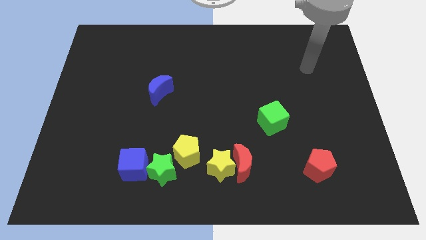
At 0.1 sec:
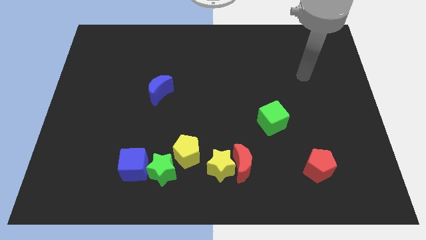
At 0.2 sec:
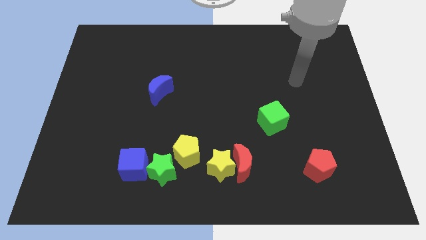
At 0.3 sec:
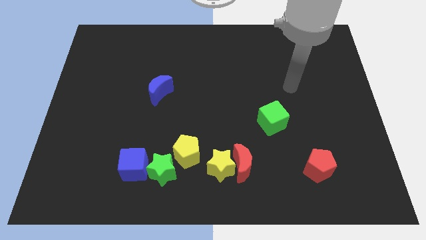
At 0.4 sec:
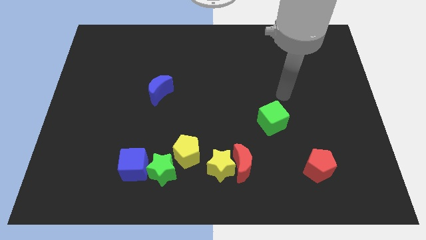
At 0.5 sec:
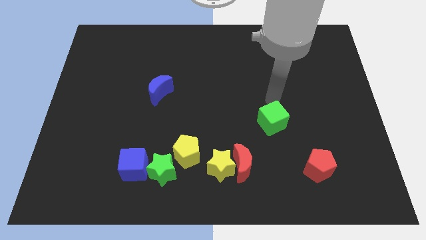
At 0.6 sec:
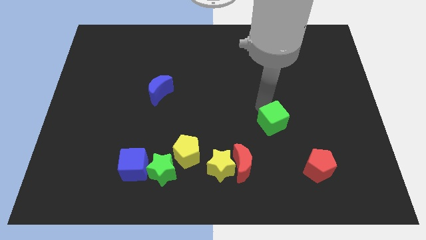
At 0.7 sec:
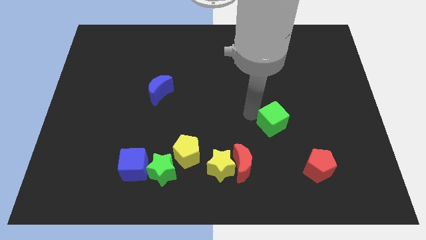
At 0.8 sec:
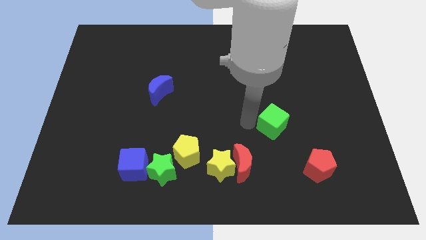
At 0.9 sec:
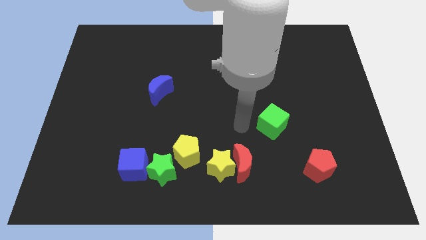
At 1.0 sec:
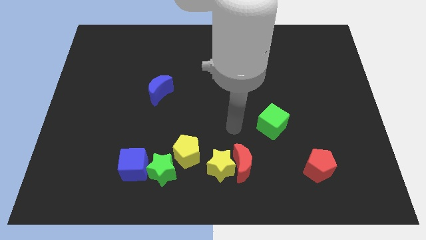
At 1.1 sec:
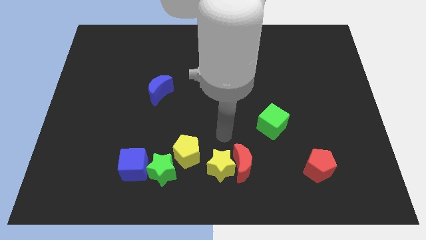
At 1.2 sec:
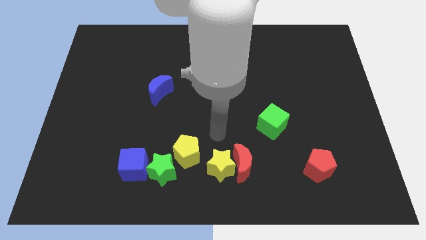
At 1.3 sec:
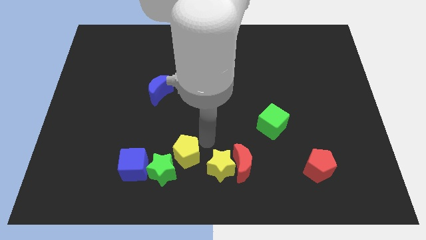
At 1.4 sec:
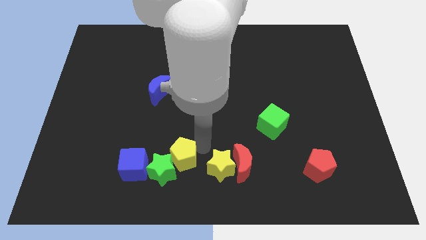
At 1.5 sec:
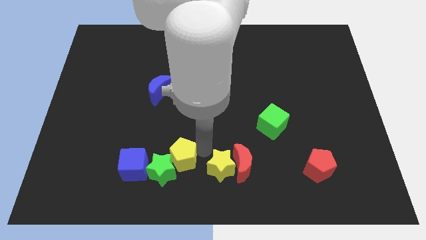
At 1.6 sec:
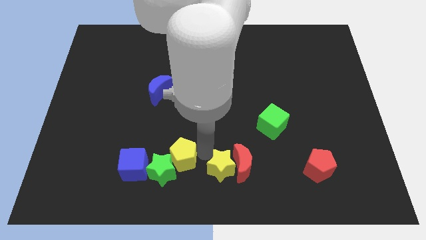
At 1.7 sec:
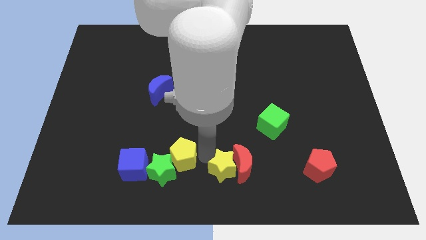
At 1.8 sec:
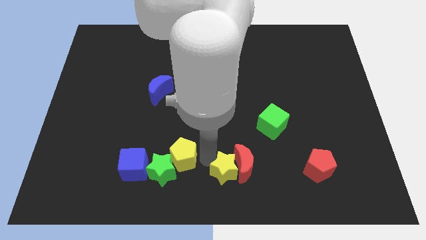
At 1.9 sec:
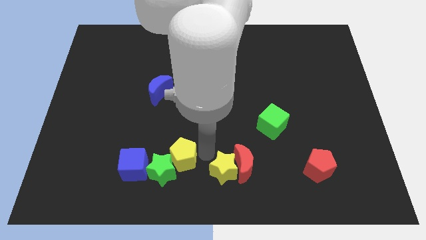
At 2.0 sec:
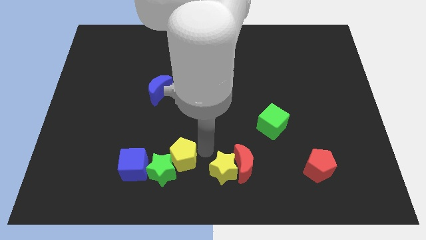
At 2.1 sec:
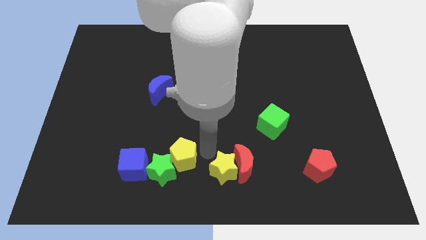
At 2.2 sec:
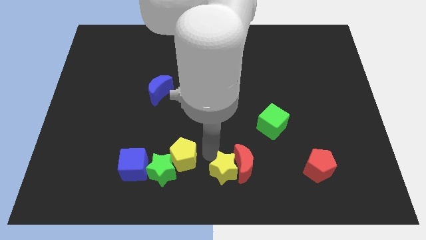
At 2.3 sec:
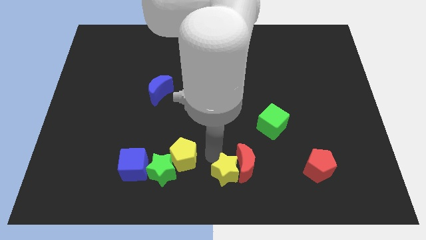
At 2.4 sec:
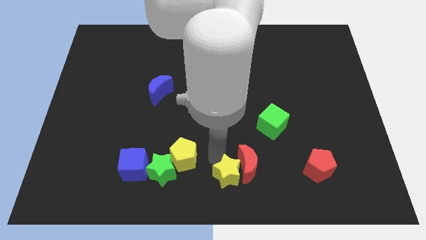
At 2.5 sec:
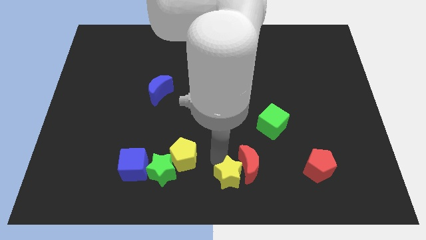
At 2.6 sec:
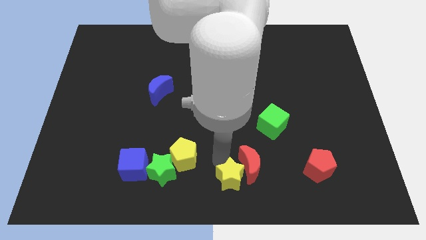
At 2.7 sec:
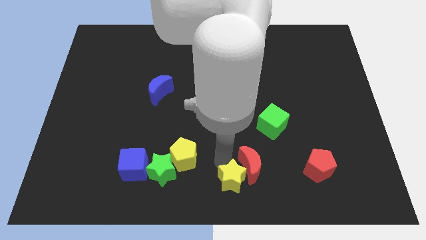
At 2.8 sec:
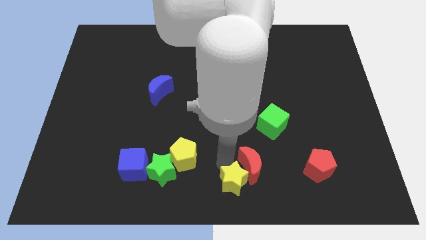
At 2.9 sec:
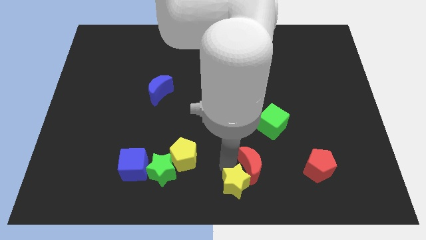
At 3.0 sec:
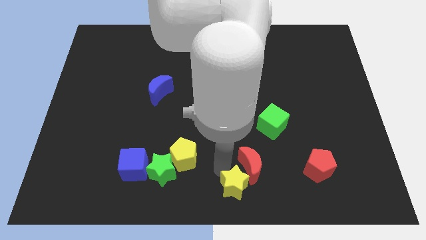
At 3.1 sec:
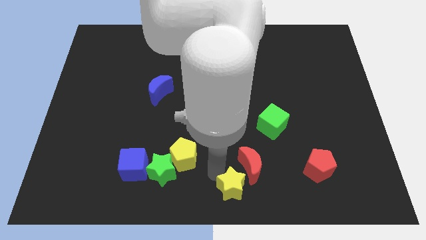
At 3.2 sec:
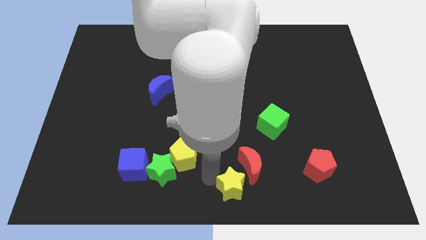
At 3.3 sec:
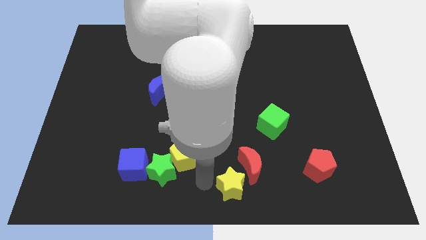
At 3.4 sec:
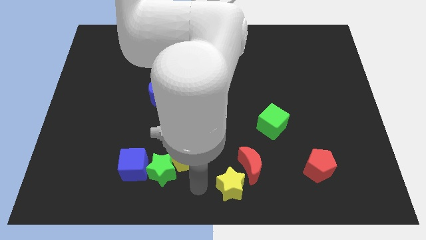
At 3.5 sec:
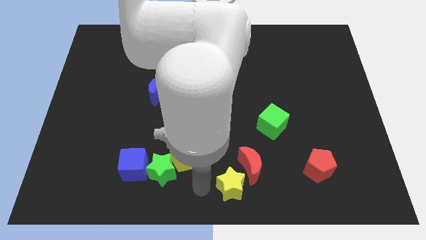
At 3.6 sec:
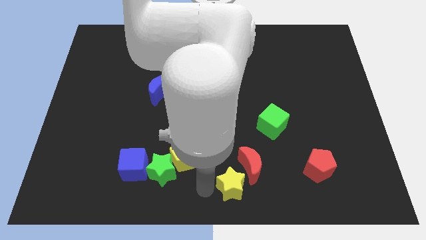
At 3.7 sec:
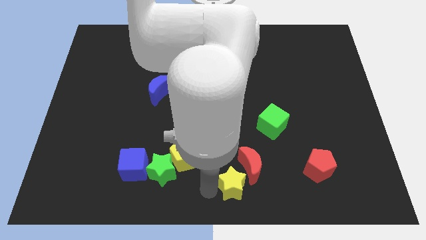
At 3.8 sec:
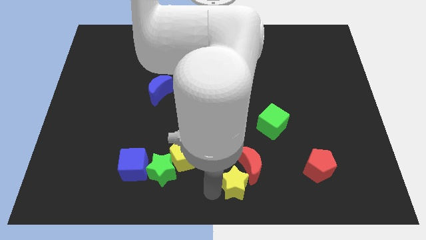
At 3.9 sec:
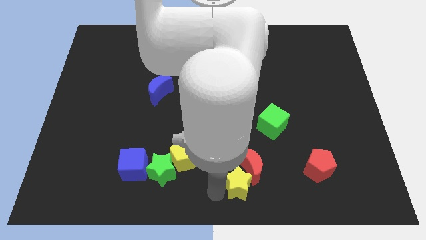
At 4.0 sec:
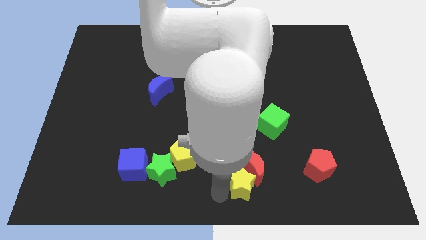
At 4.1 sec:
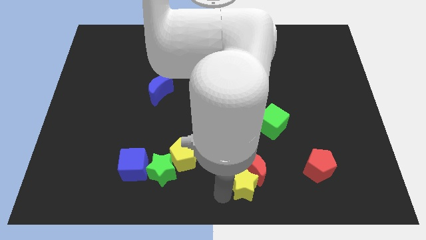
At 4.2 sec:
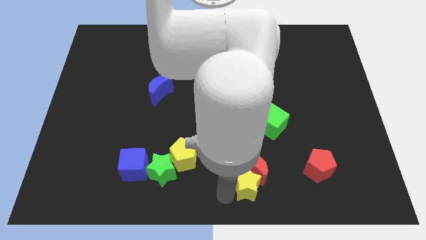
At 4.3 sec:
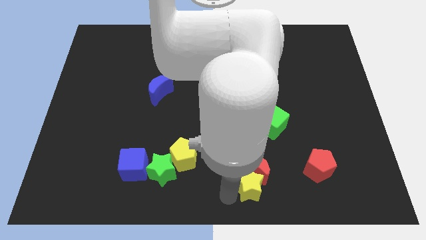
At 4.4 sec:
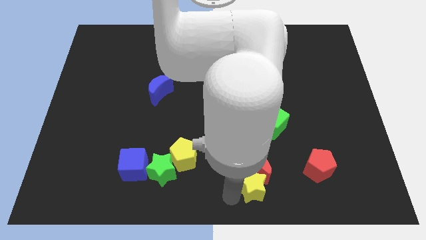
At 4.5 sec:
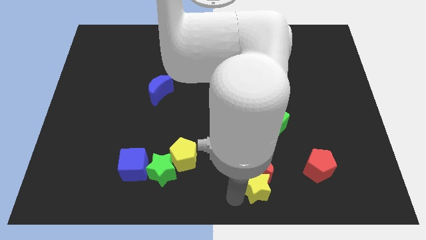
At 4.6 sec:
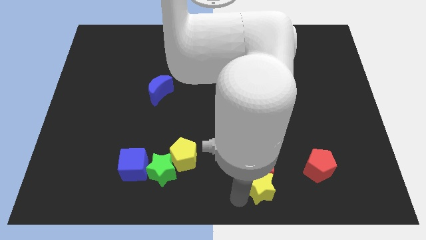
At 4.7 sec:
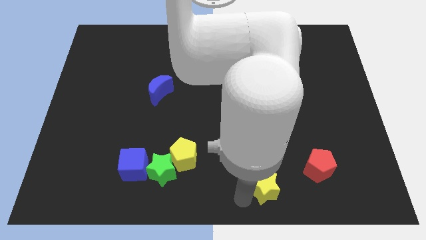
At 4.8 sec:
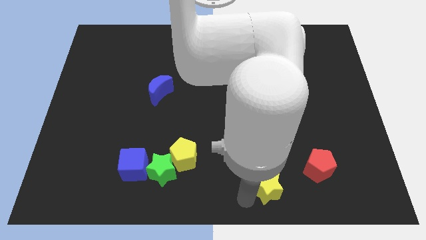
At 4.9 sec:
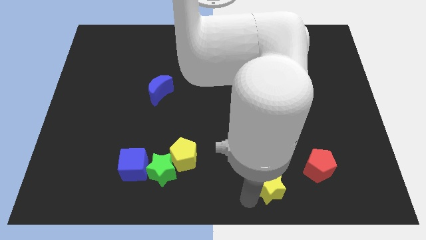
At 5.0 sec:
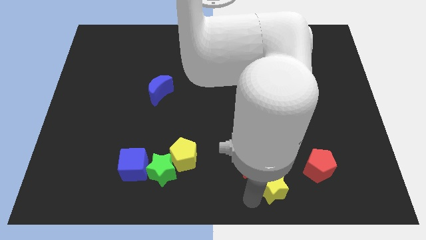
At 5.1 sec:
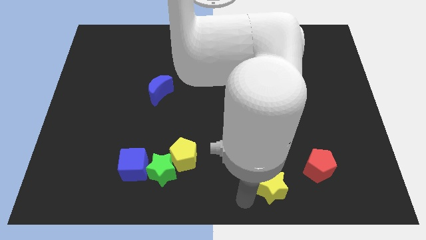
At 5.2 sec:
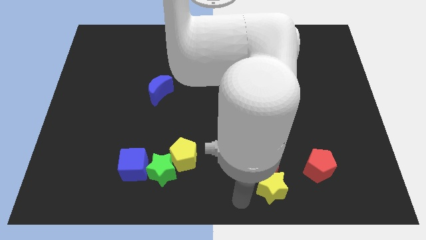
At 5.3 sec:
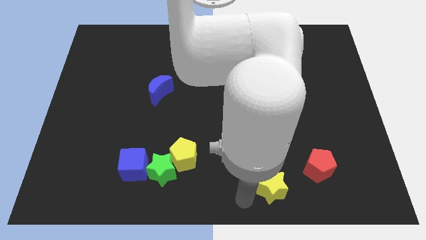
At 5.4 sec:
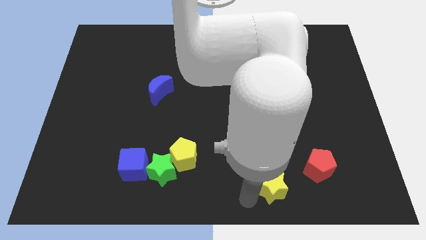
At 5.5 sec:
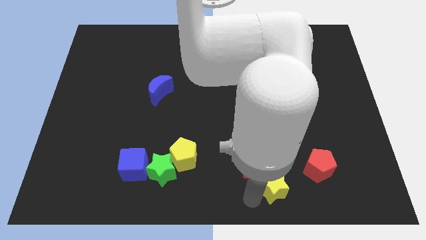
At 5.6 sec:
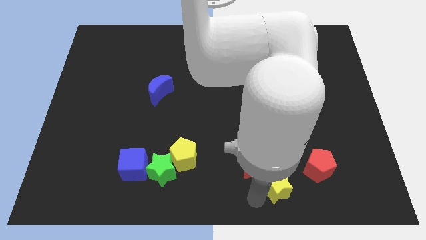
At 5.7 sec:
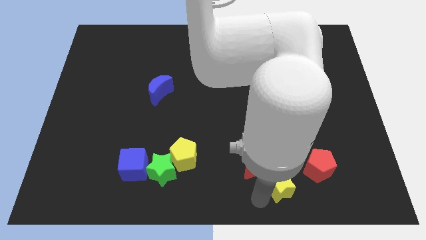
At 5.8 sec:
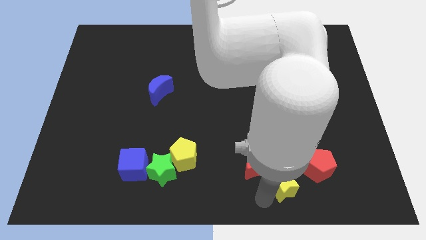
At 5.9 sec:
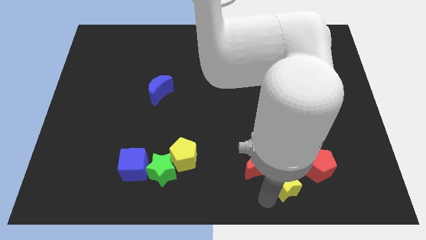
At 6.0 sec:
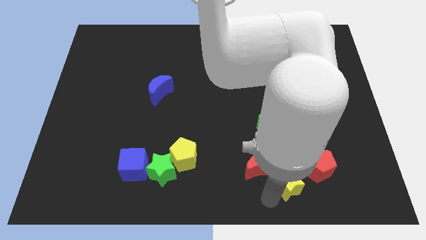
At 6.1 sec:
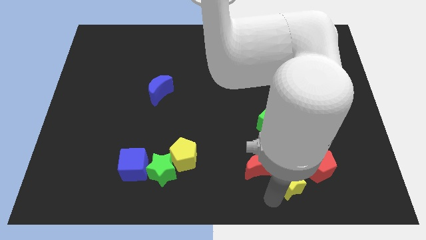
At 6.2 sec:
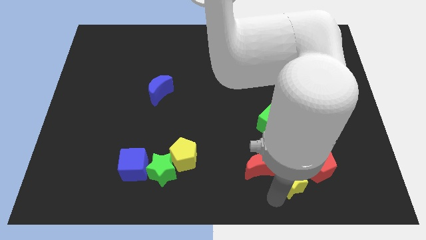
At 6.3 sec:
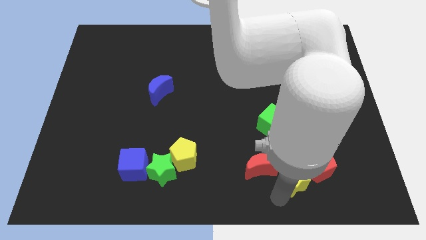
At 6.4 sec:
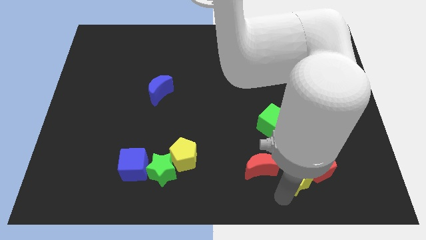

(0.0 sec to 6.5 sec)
move the yellow star close to the red pentagon

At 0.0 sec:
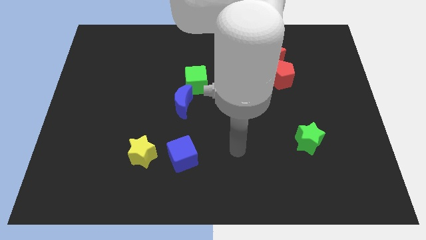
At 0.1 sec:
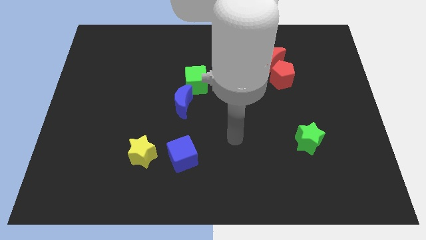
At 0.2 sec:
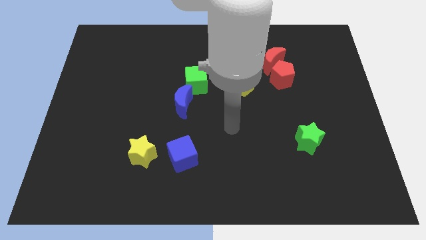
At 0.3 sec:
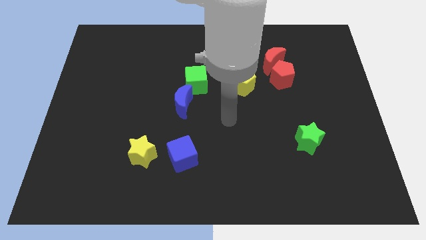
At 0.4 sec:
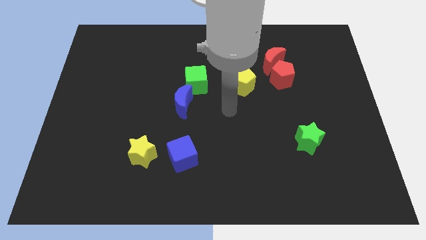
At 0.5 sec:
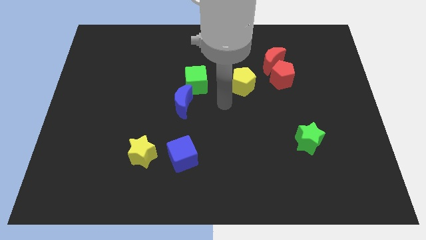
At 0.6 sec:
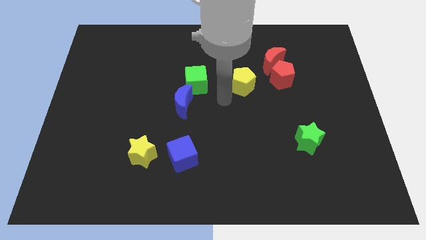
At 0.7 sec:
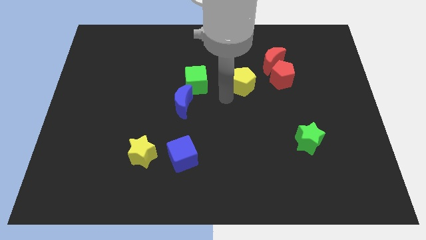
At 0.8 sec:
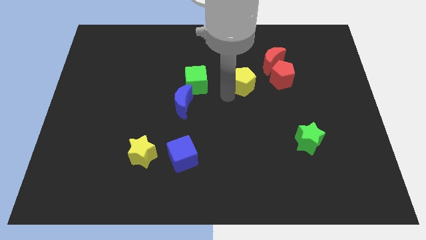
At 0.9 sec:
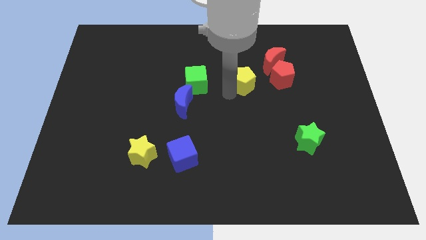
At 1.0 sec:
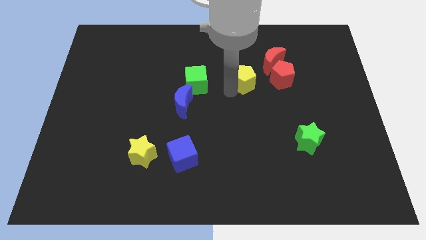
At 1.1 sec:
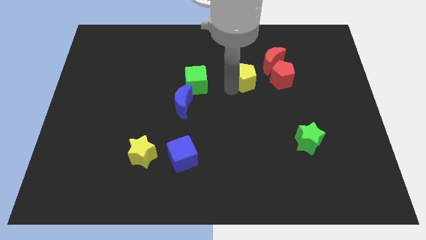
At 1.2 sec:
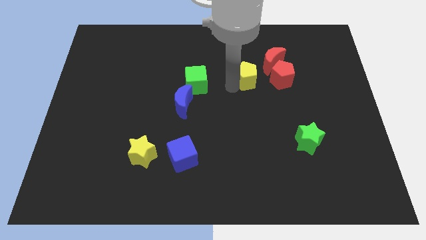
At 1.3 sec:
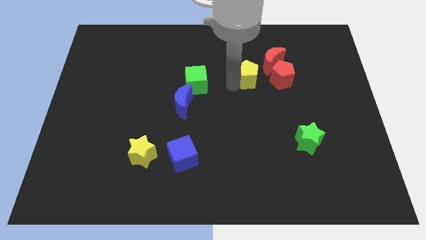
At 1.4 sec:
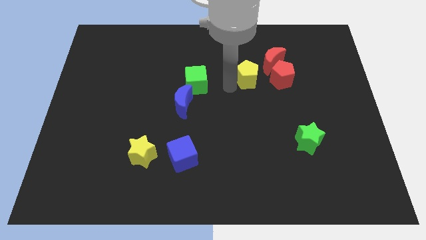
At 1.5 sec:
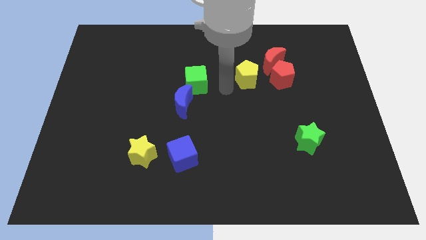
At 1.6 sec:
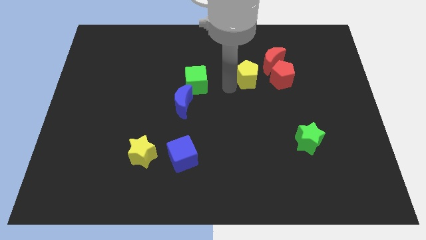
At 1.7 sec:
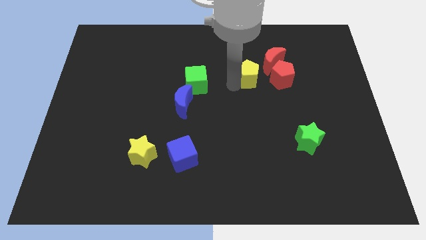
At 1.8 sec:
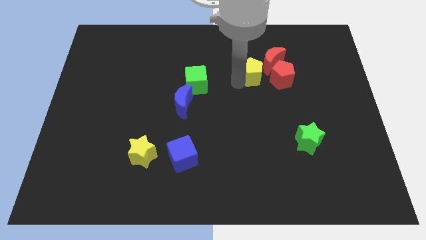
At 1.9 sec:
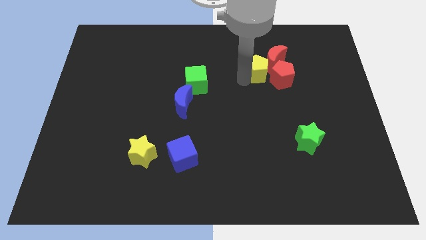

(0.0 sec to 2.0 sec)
push the yellow pentagon to the red moon
